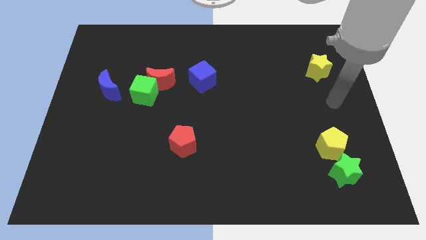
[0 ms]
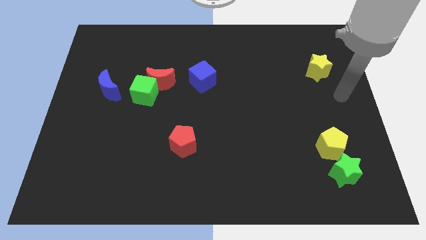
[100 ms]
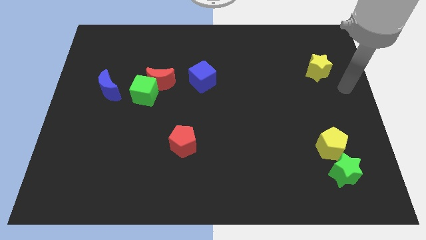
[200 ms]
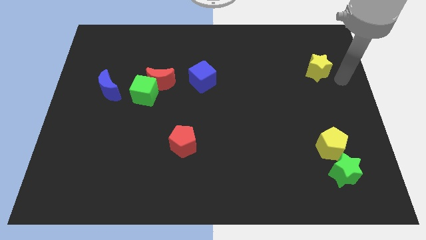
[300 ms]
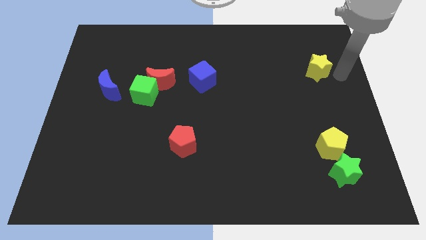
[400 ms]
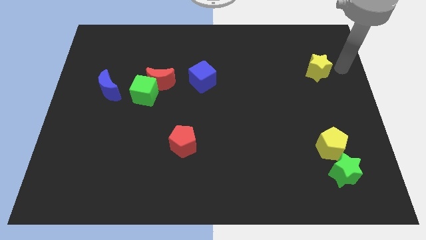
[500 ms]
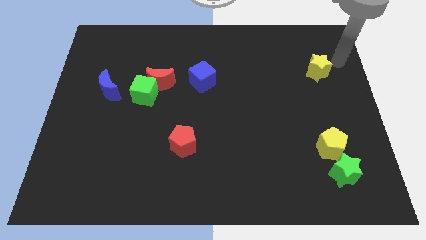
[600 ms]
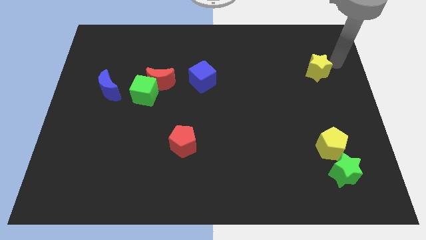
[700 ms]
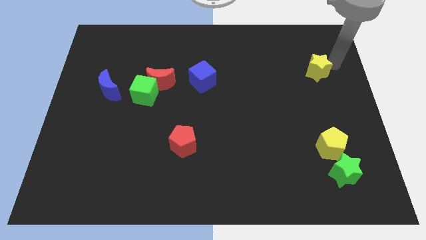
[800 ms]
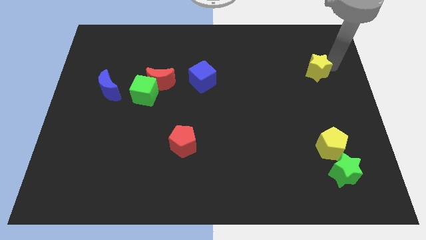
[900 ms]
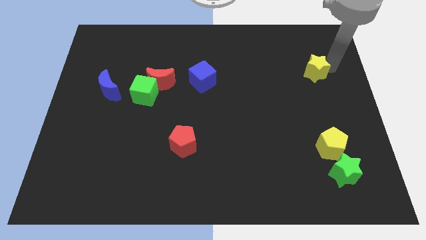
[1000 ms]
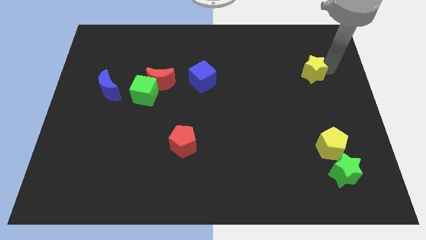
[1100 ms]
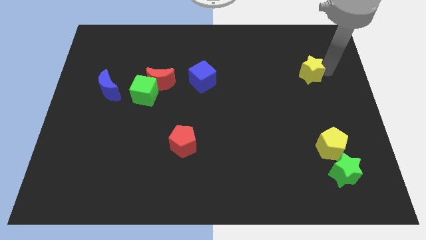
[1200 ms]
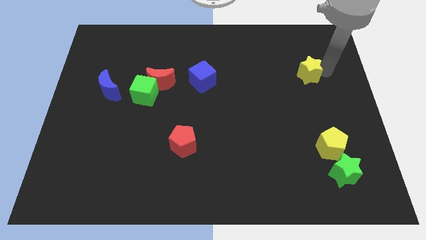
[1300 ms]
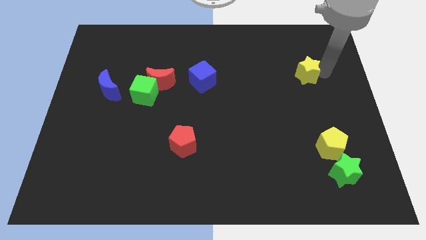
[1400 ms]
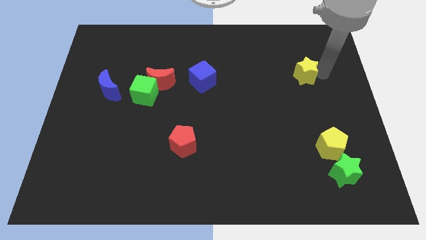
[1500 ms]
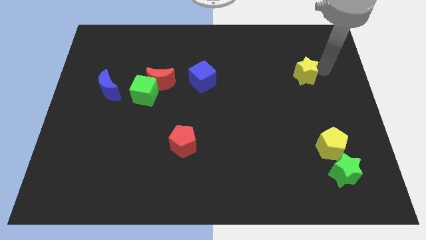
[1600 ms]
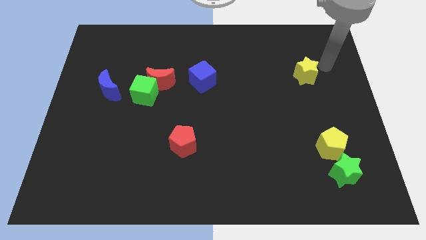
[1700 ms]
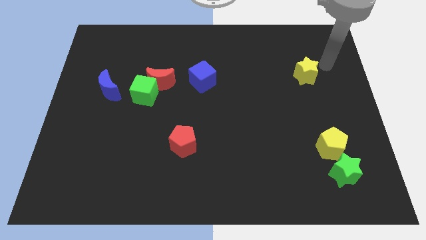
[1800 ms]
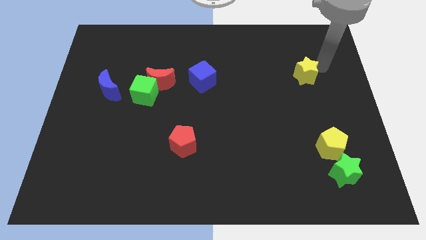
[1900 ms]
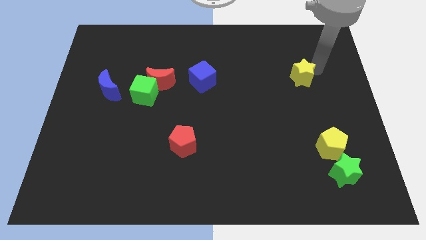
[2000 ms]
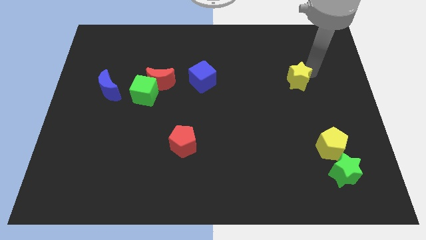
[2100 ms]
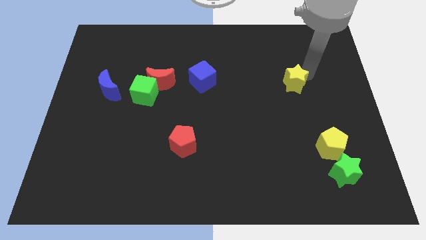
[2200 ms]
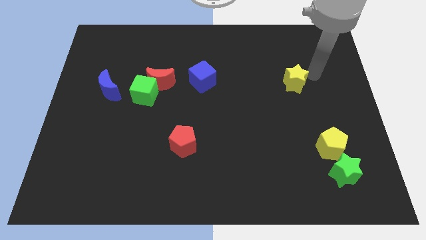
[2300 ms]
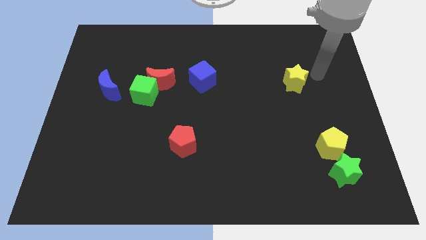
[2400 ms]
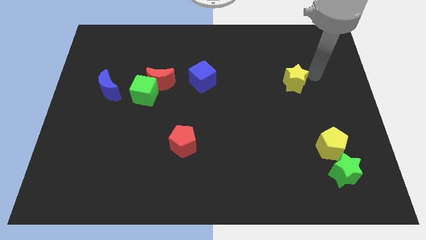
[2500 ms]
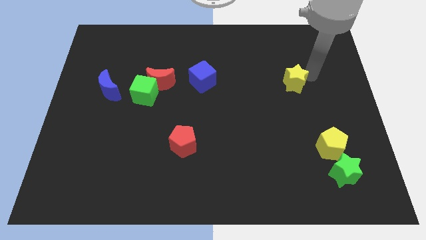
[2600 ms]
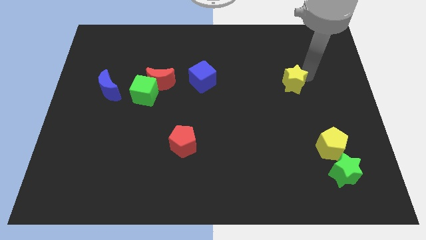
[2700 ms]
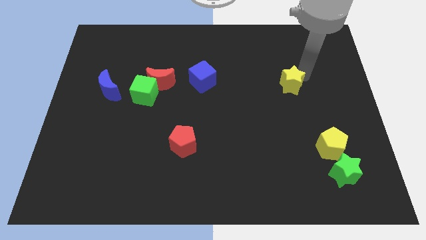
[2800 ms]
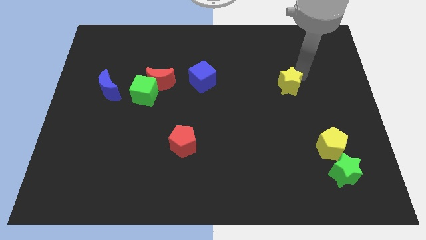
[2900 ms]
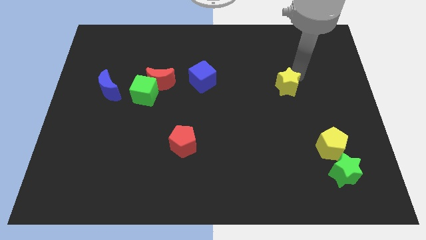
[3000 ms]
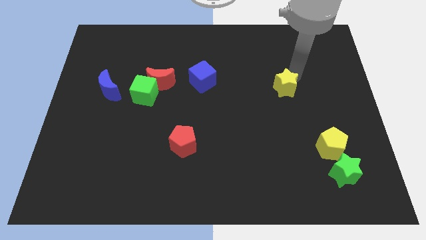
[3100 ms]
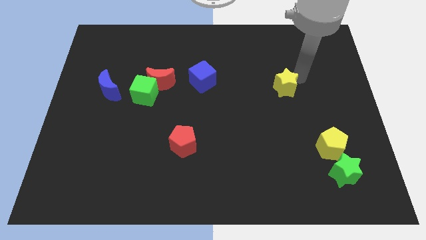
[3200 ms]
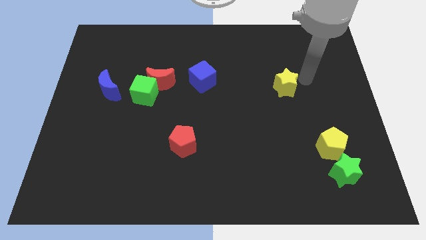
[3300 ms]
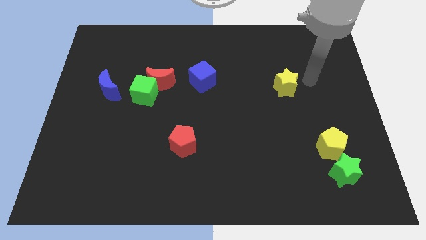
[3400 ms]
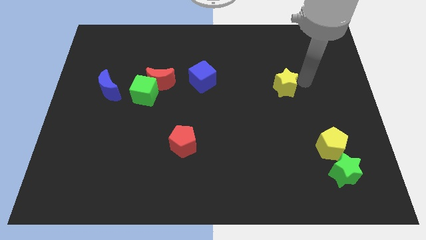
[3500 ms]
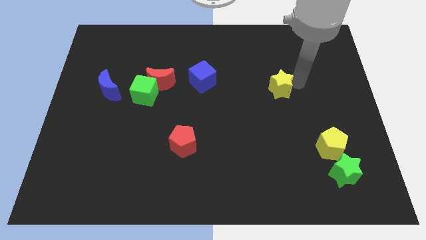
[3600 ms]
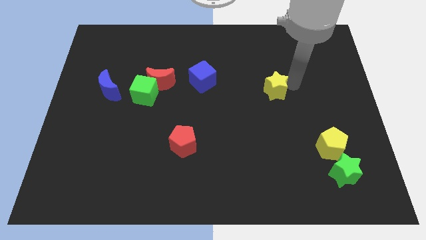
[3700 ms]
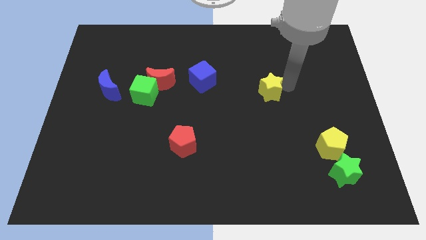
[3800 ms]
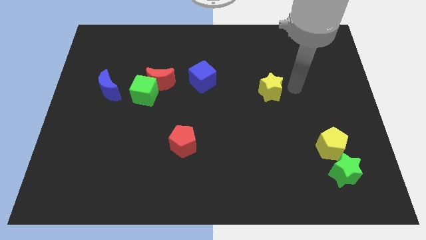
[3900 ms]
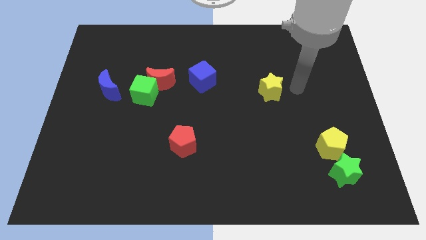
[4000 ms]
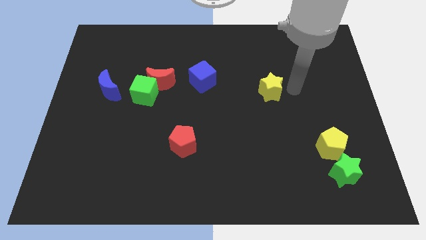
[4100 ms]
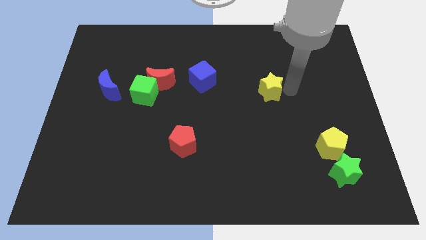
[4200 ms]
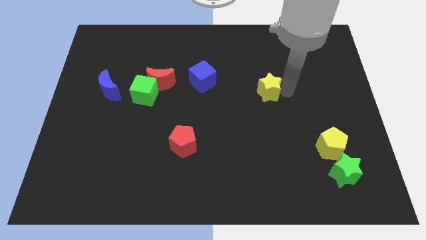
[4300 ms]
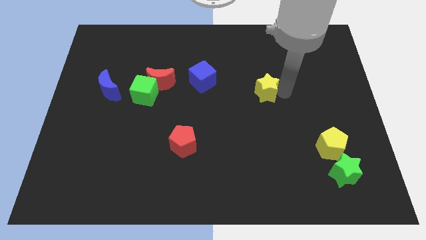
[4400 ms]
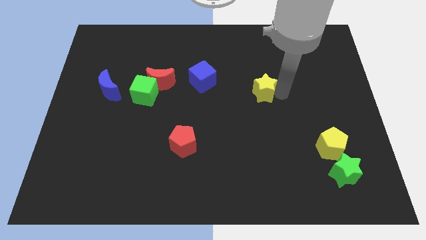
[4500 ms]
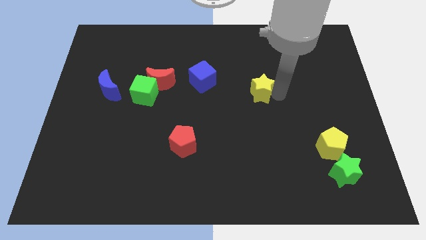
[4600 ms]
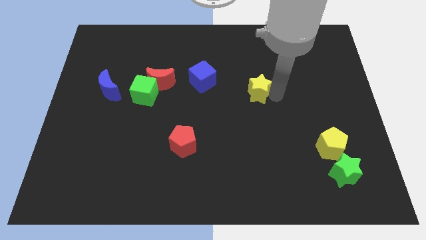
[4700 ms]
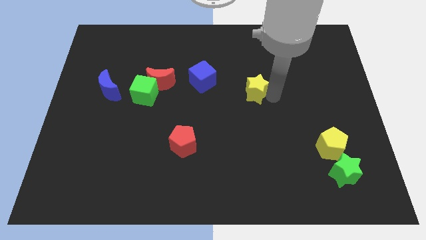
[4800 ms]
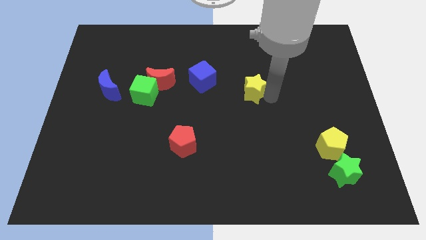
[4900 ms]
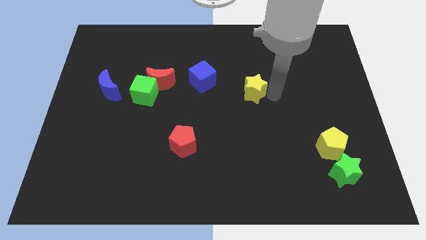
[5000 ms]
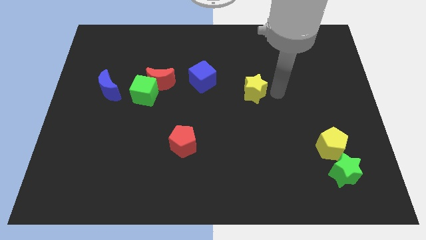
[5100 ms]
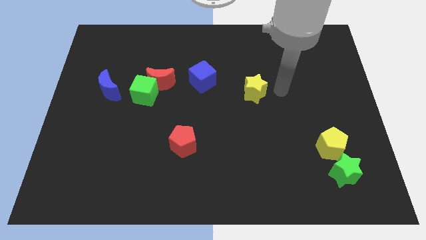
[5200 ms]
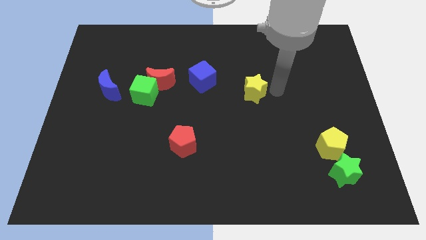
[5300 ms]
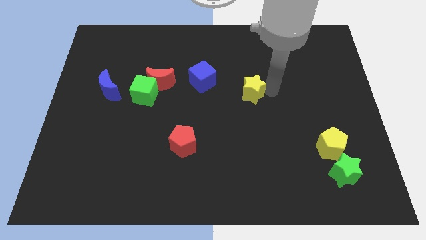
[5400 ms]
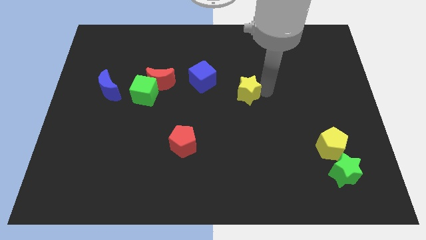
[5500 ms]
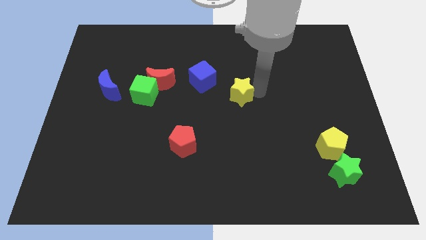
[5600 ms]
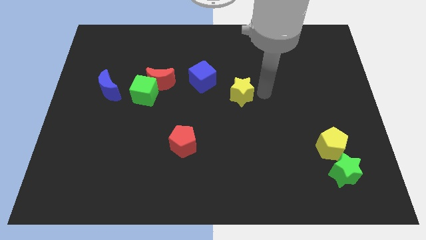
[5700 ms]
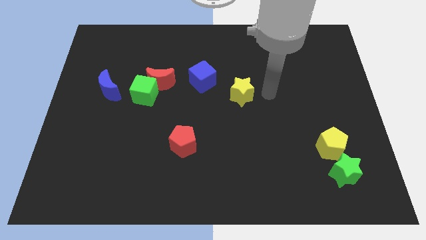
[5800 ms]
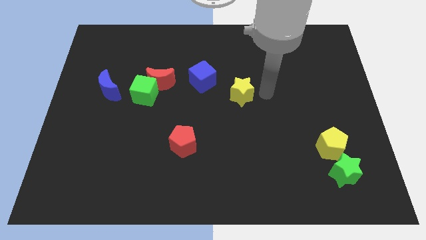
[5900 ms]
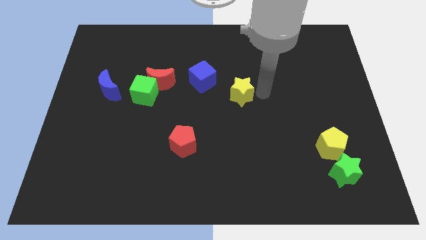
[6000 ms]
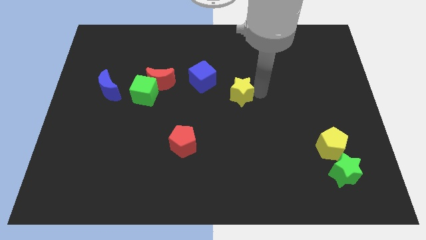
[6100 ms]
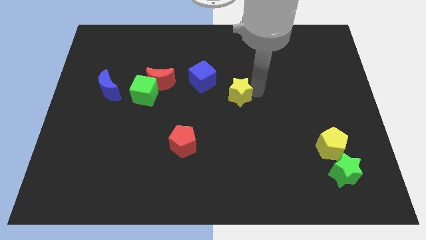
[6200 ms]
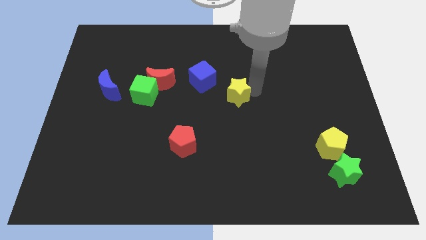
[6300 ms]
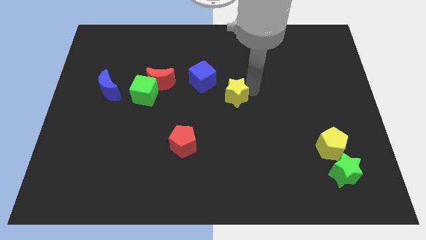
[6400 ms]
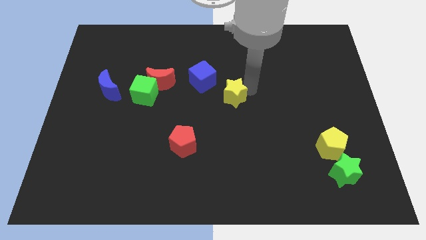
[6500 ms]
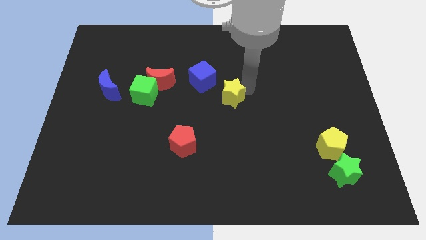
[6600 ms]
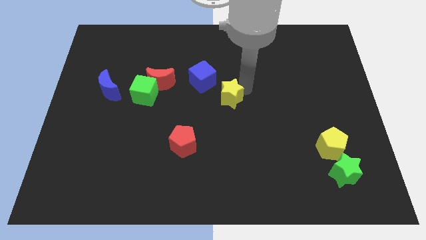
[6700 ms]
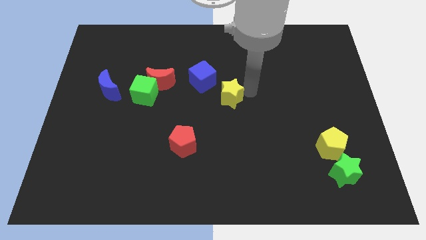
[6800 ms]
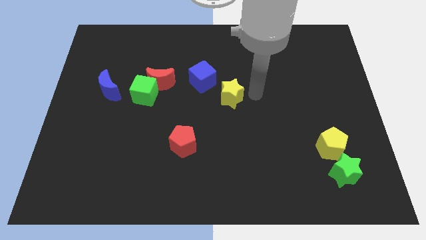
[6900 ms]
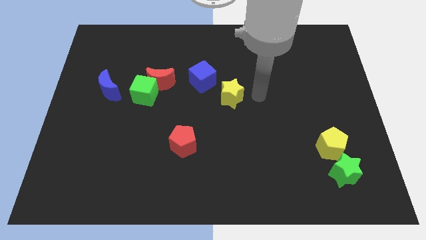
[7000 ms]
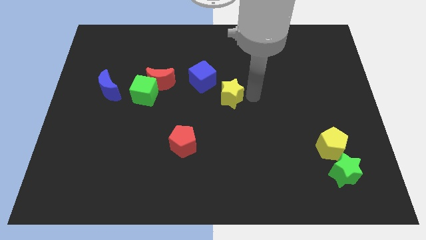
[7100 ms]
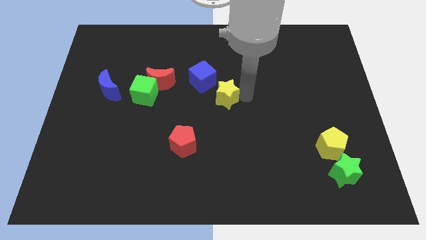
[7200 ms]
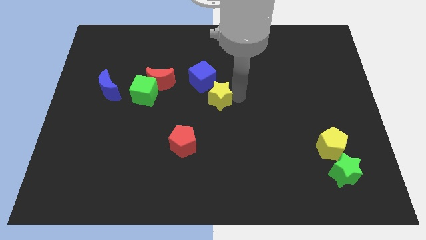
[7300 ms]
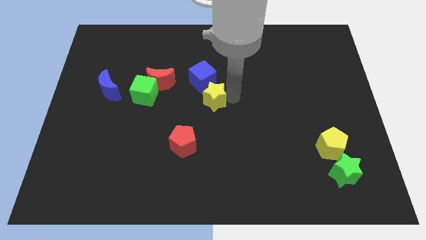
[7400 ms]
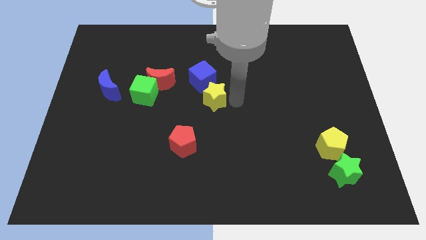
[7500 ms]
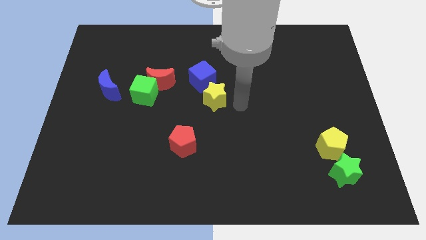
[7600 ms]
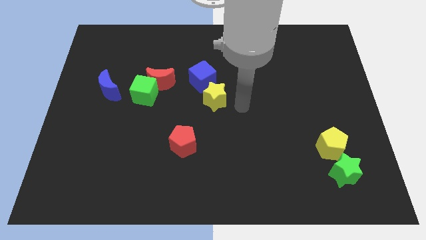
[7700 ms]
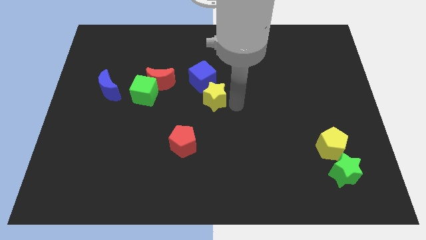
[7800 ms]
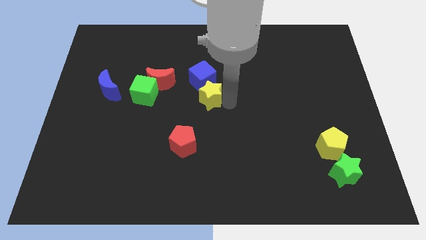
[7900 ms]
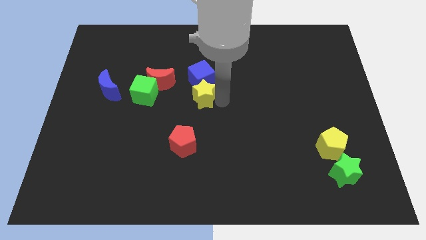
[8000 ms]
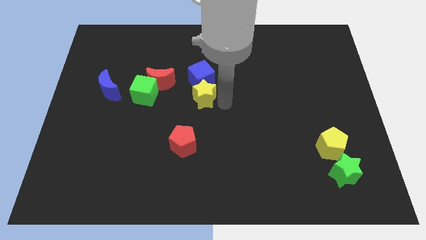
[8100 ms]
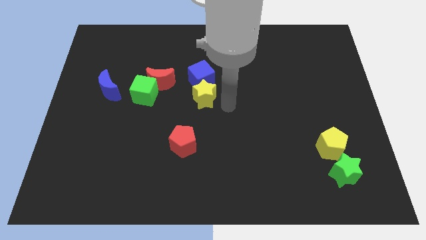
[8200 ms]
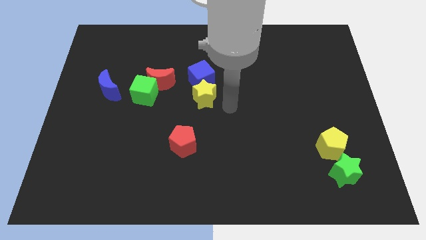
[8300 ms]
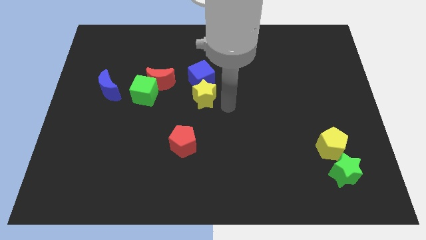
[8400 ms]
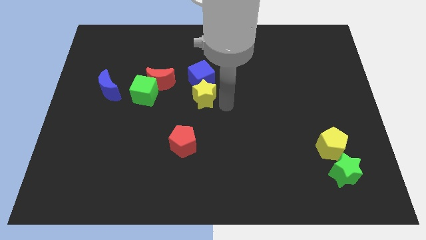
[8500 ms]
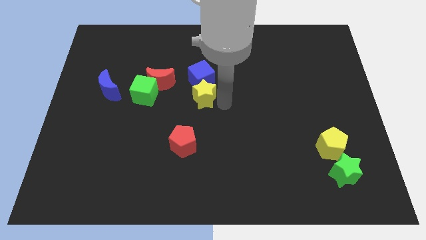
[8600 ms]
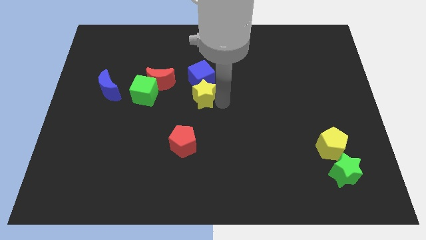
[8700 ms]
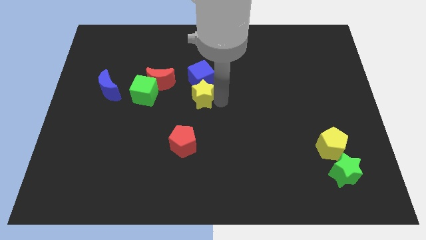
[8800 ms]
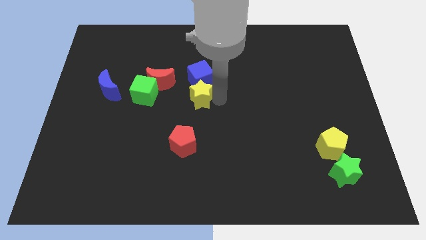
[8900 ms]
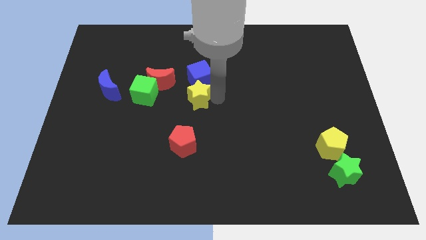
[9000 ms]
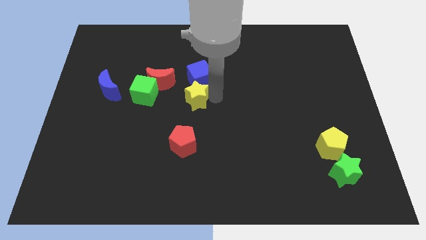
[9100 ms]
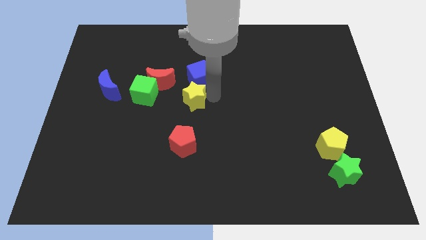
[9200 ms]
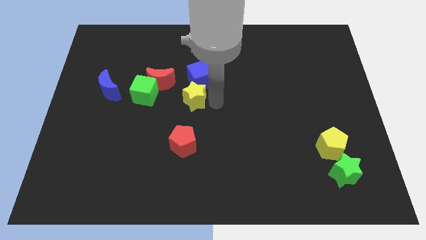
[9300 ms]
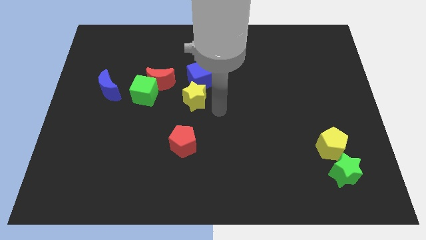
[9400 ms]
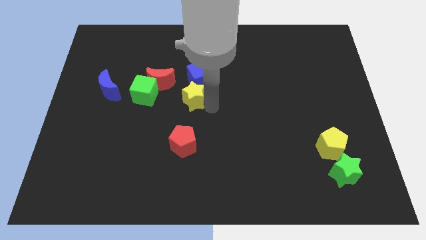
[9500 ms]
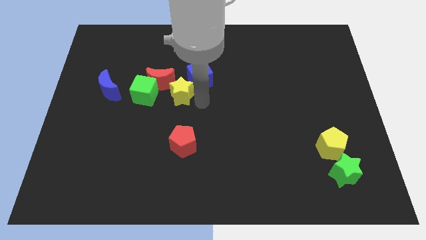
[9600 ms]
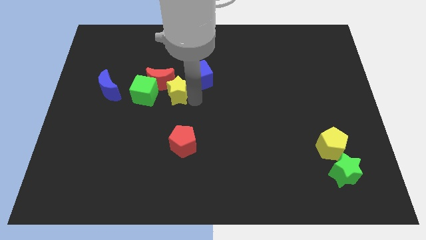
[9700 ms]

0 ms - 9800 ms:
put the yellow star towards the red moon
